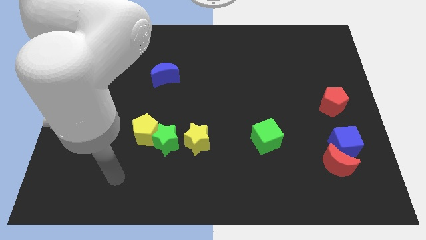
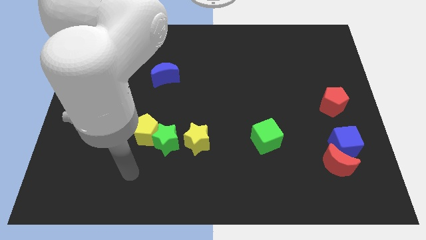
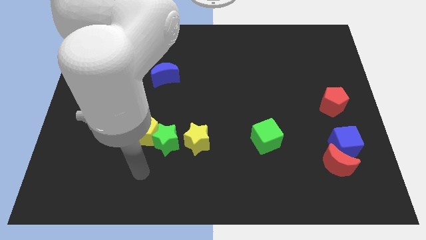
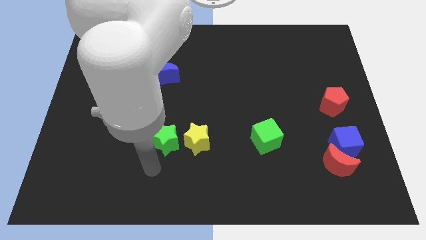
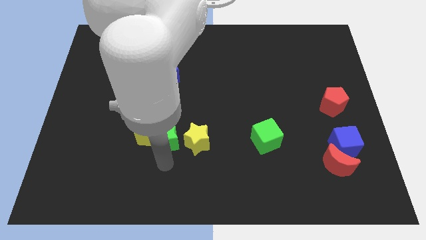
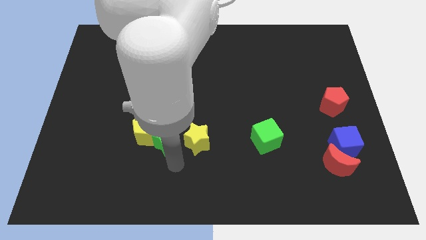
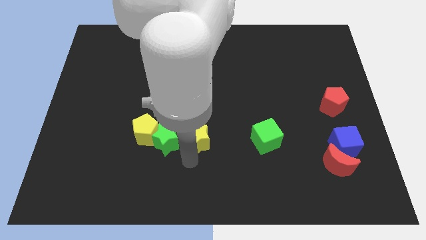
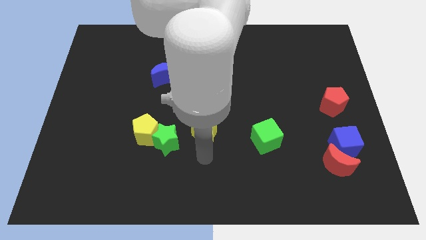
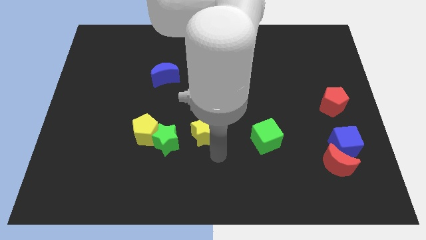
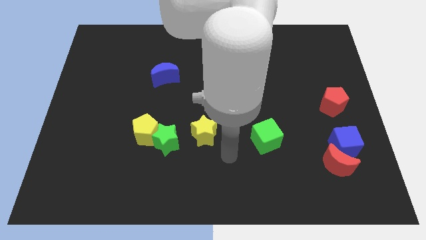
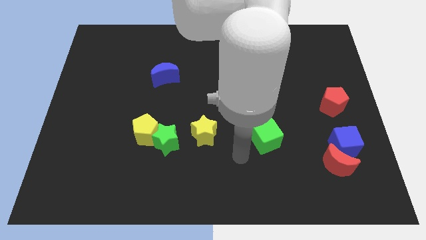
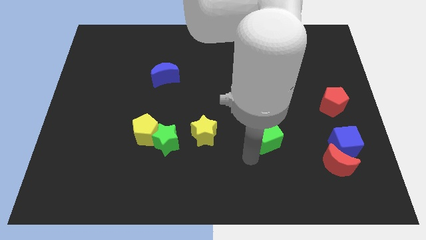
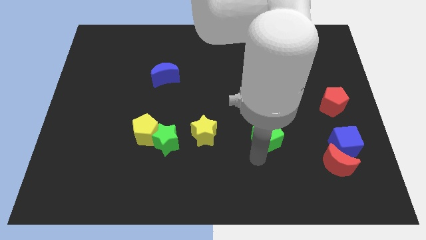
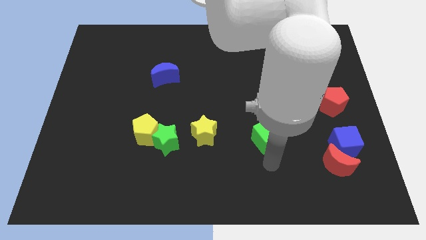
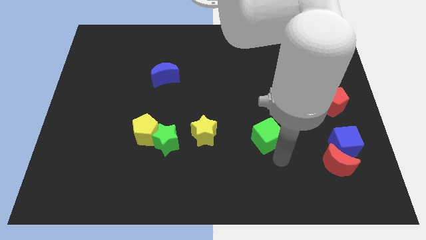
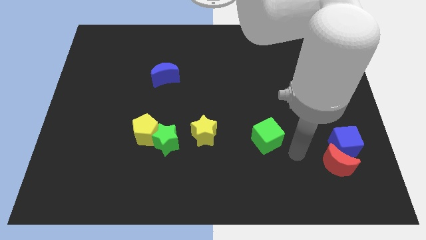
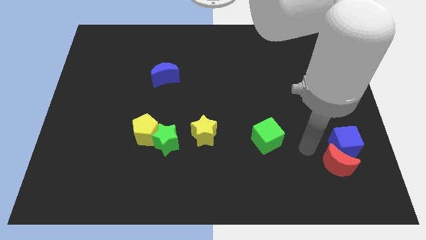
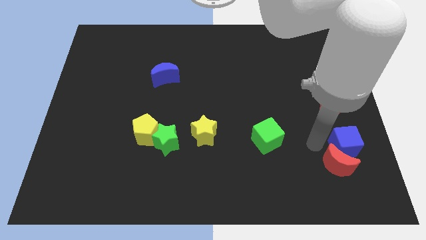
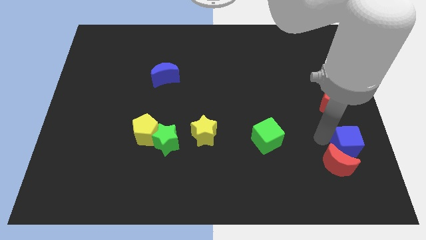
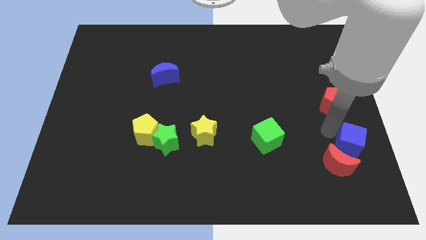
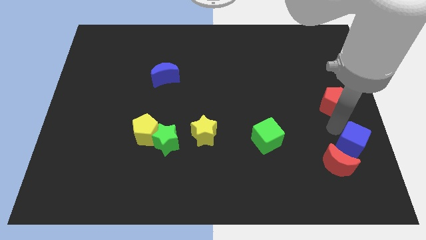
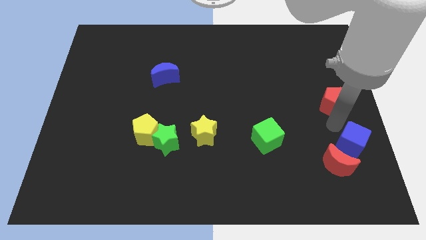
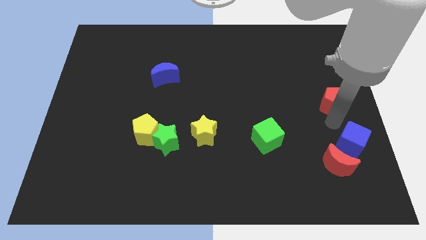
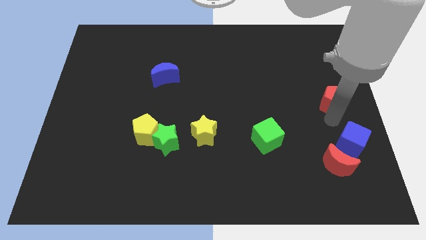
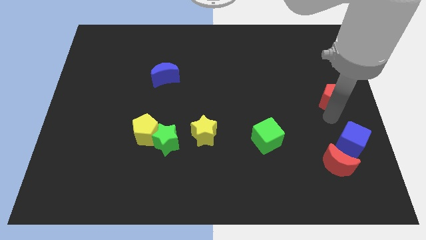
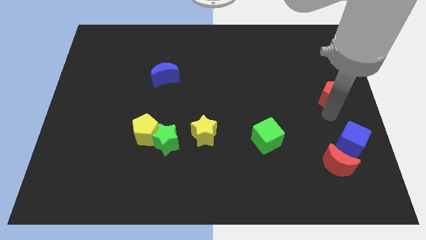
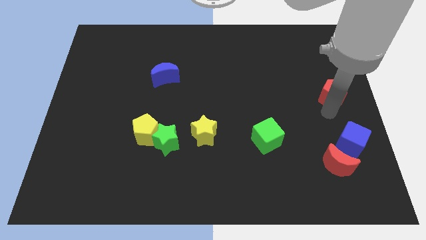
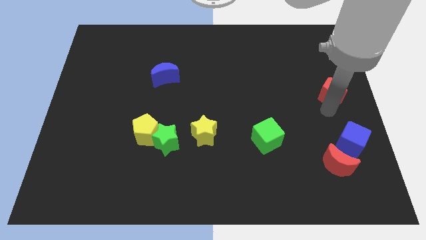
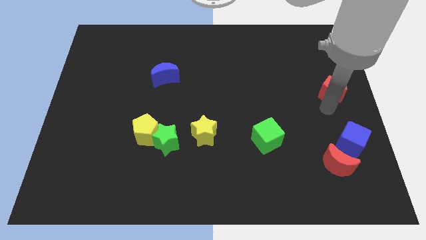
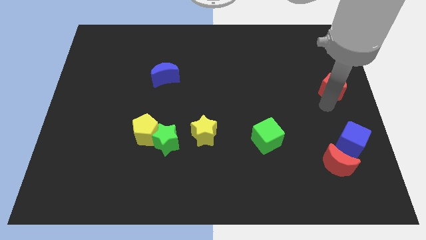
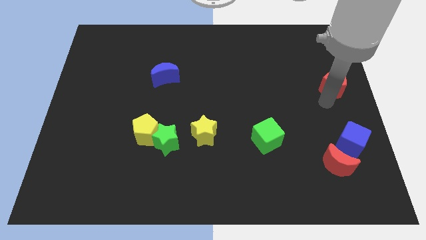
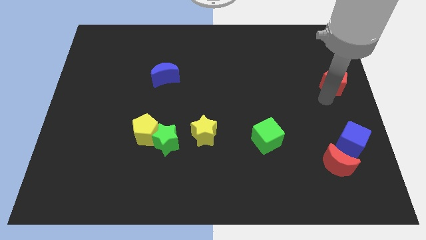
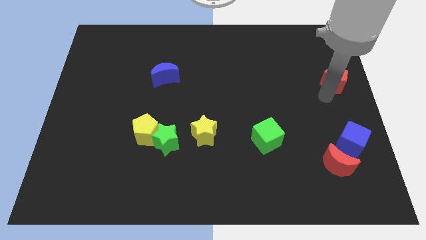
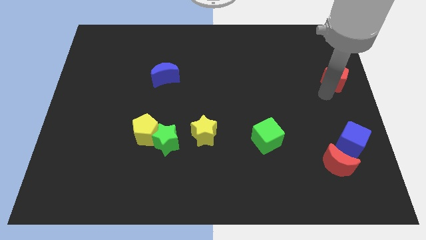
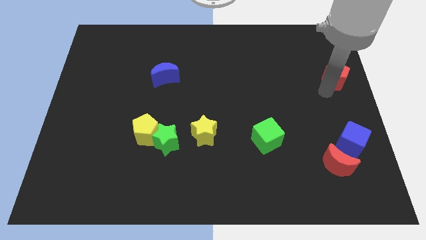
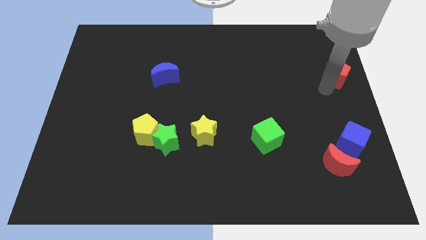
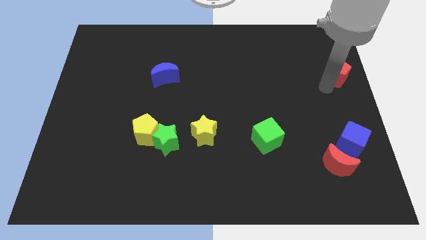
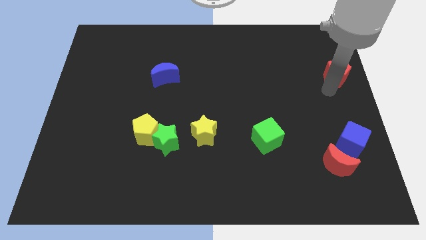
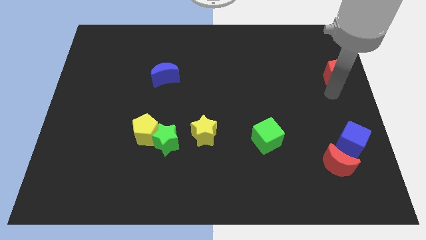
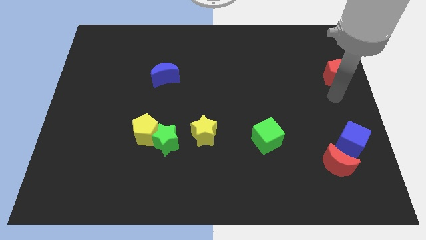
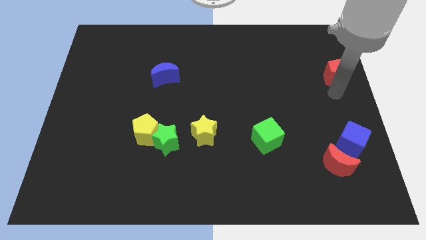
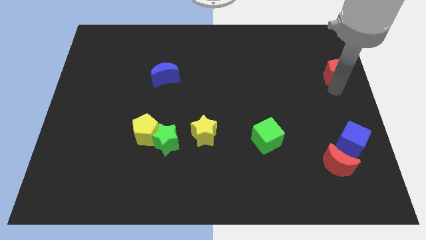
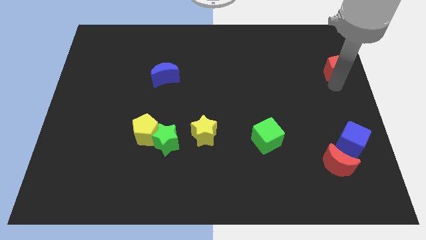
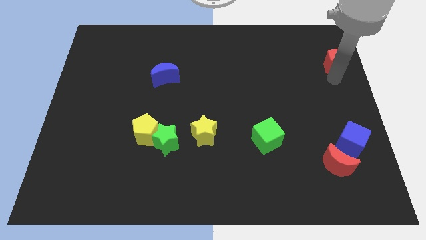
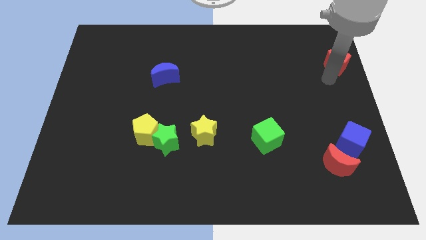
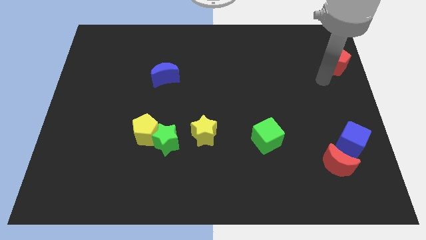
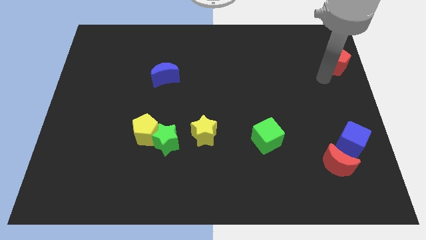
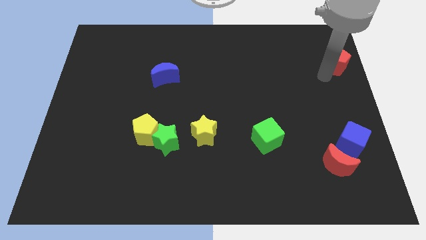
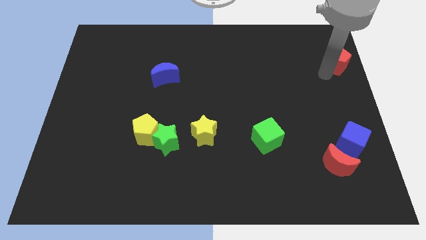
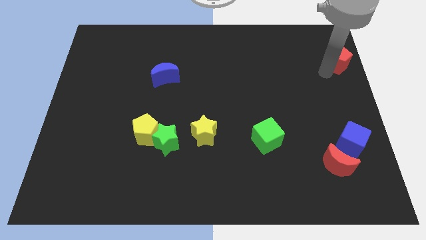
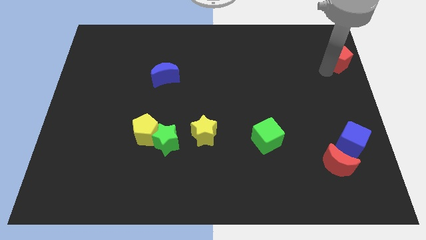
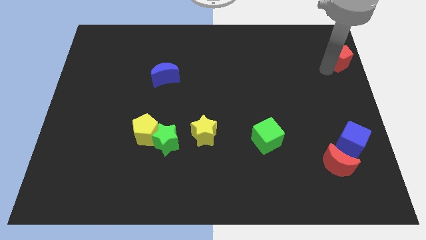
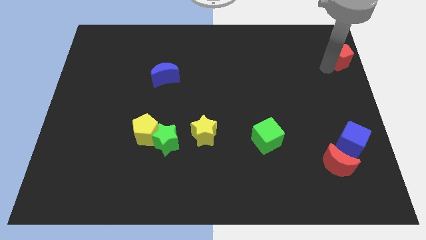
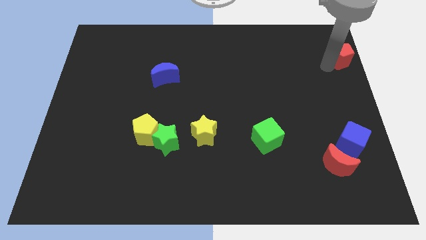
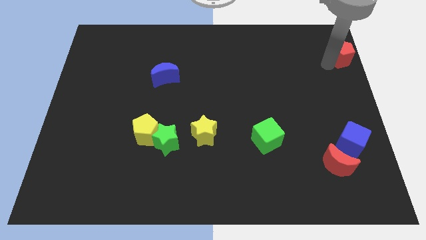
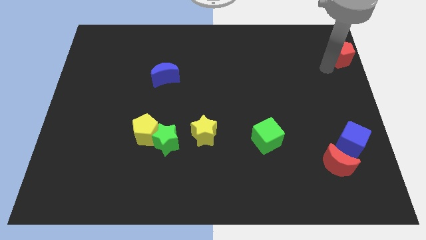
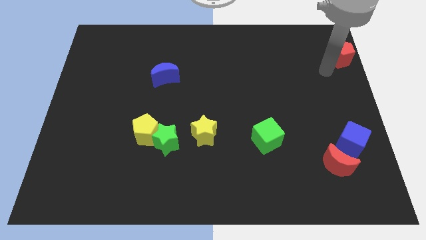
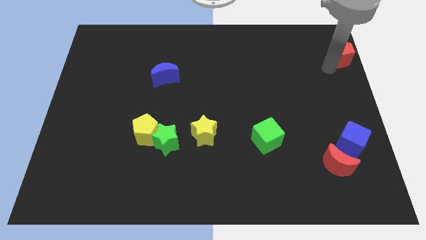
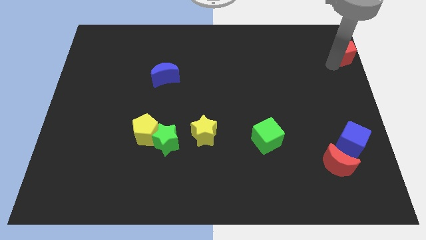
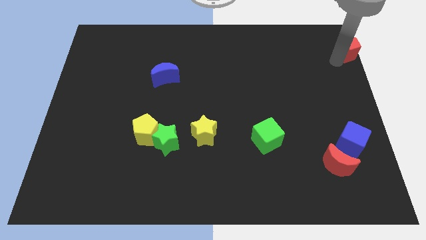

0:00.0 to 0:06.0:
slide the red pentagon to the top right
